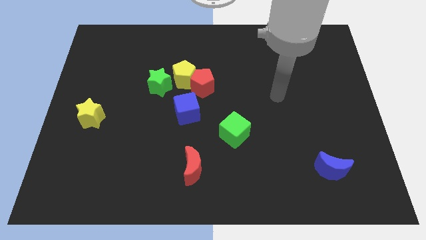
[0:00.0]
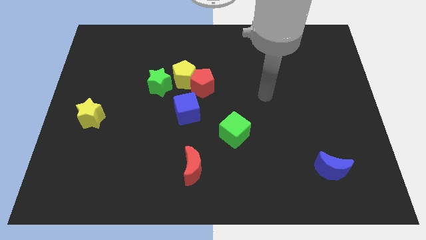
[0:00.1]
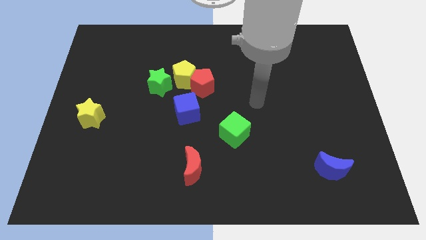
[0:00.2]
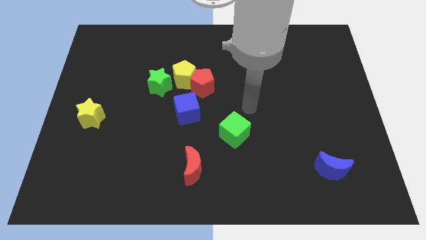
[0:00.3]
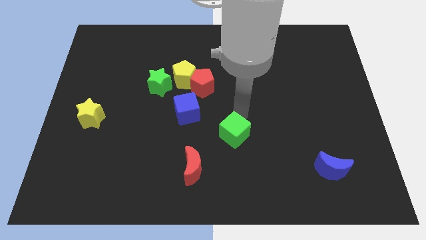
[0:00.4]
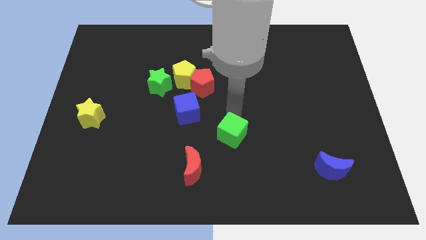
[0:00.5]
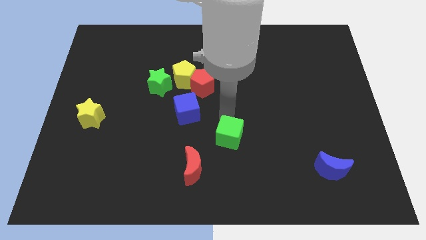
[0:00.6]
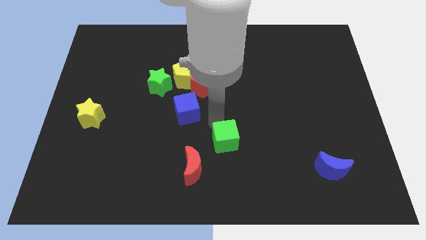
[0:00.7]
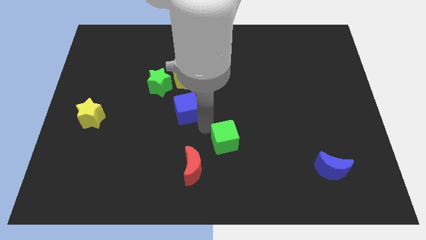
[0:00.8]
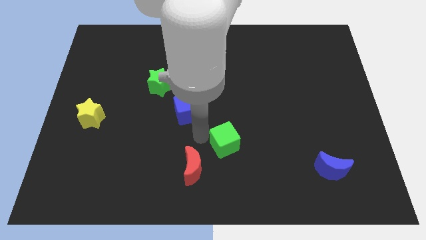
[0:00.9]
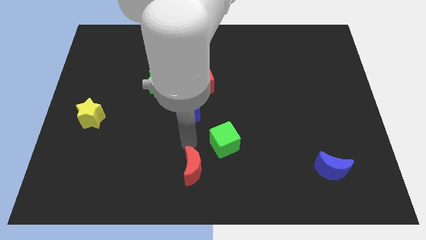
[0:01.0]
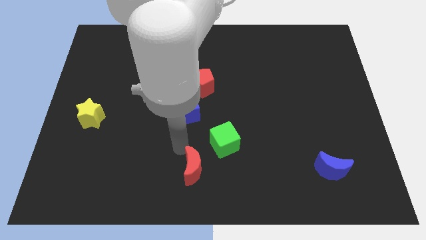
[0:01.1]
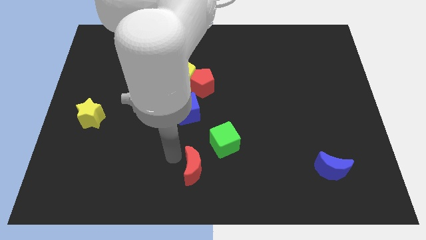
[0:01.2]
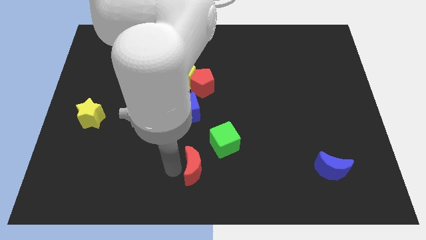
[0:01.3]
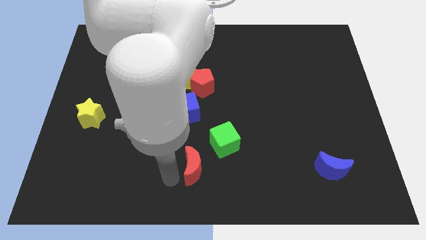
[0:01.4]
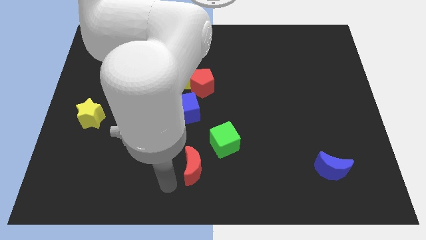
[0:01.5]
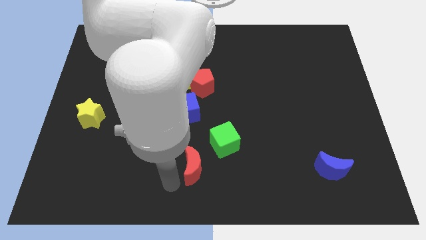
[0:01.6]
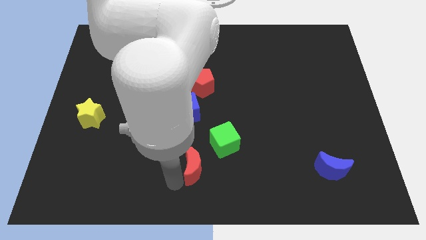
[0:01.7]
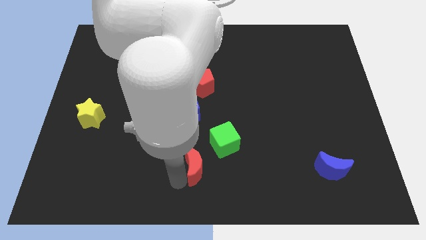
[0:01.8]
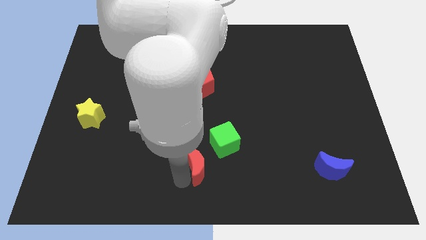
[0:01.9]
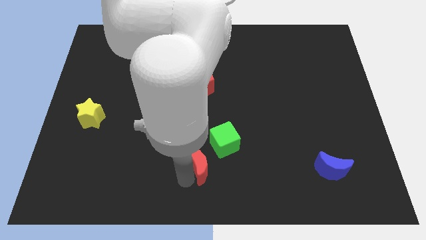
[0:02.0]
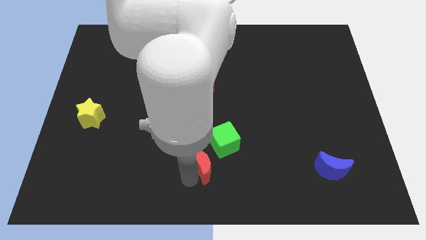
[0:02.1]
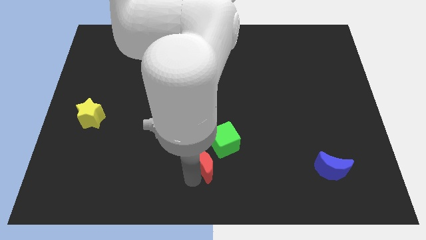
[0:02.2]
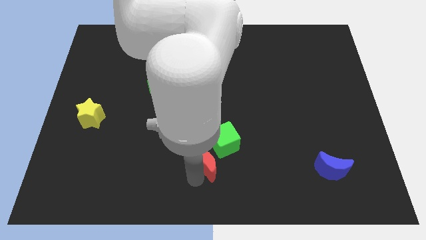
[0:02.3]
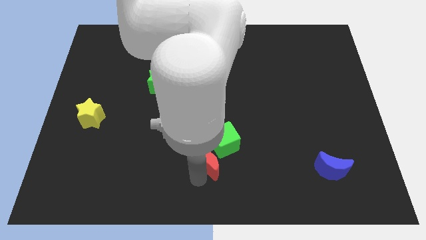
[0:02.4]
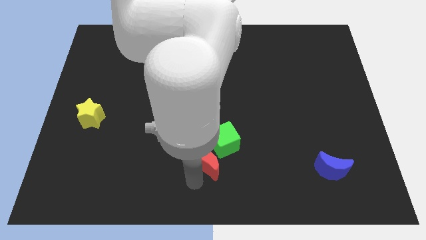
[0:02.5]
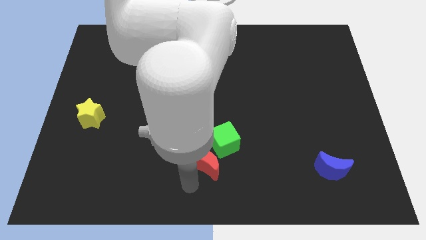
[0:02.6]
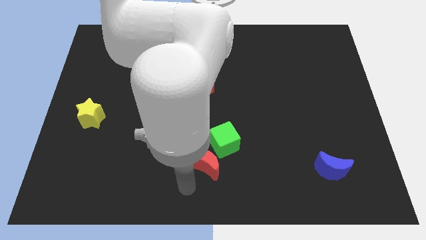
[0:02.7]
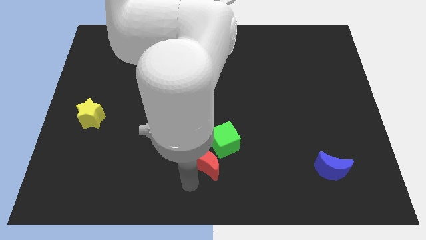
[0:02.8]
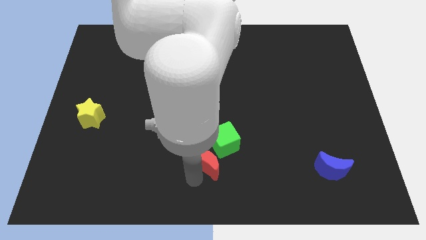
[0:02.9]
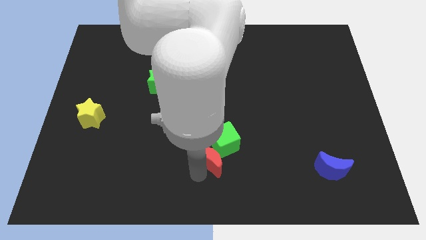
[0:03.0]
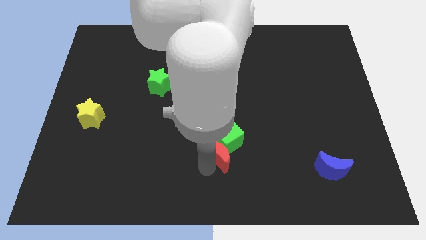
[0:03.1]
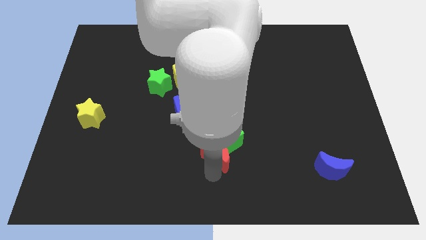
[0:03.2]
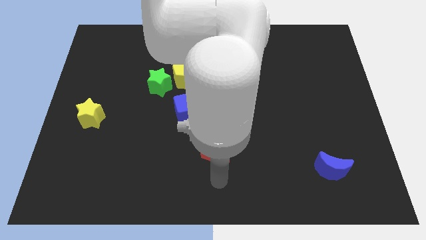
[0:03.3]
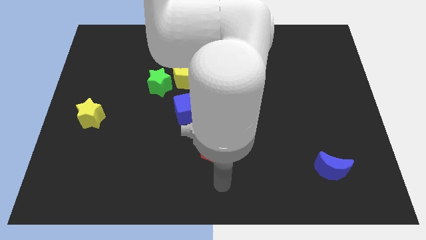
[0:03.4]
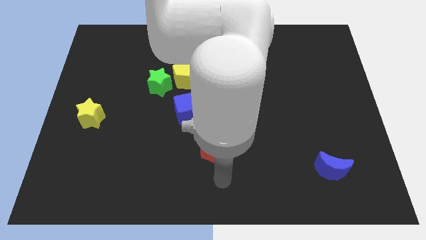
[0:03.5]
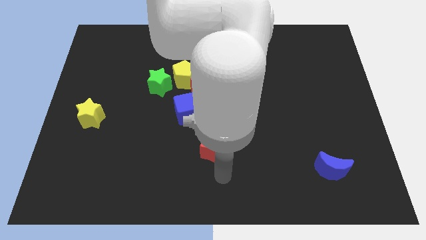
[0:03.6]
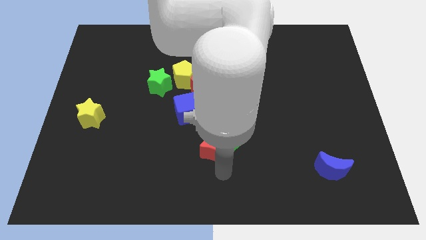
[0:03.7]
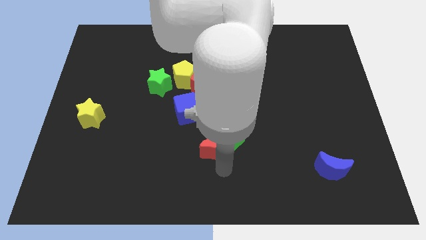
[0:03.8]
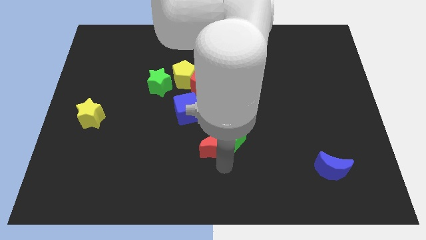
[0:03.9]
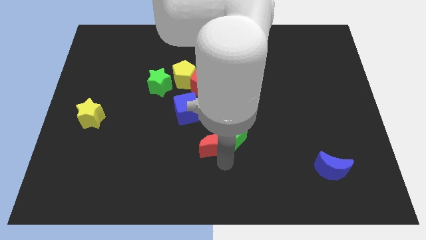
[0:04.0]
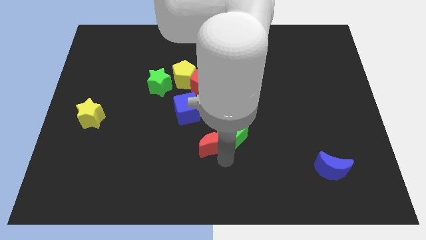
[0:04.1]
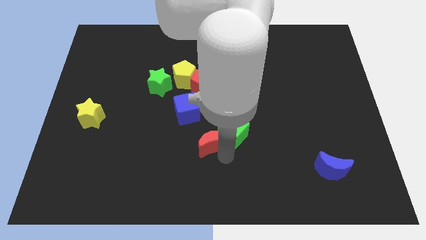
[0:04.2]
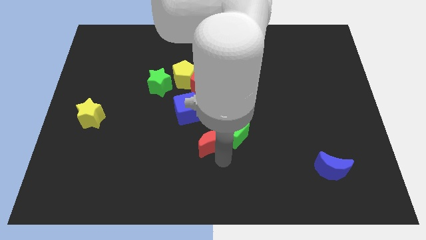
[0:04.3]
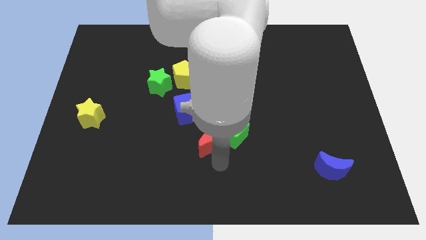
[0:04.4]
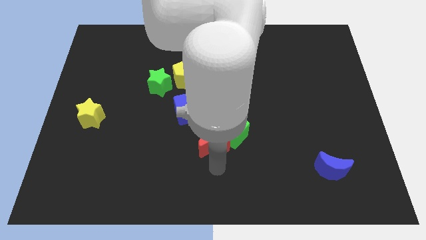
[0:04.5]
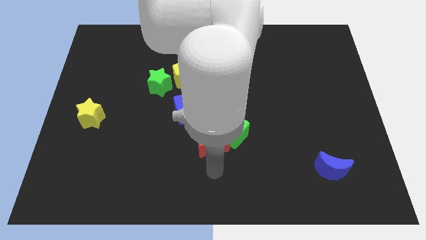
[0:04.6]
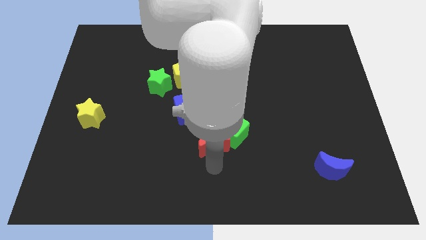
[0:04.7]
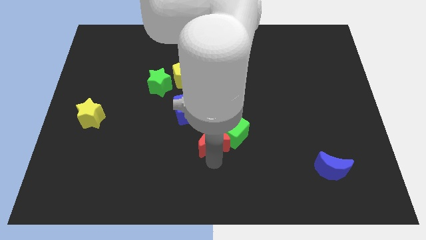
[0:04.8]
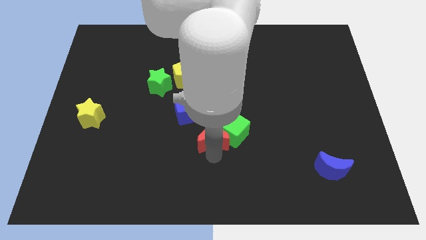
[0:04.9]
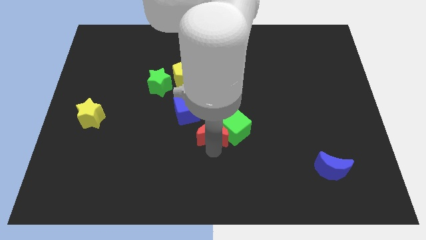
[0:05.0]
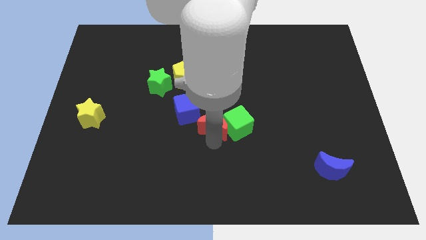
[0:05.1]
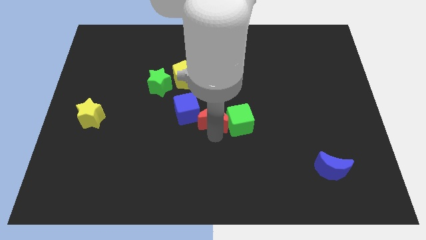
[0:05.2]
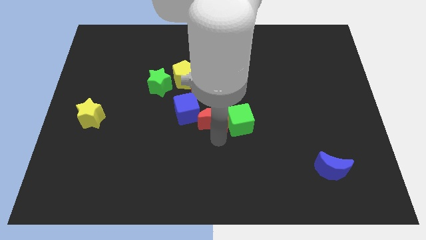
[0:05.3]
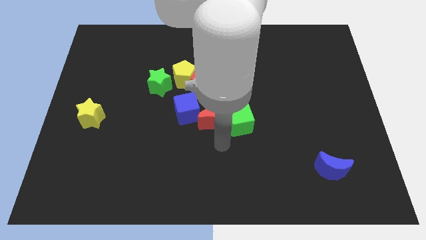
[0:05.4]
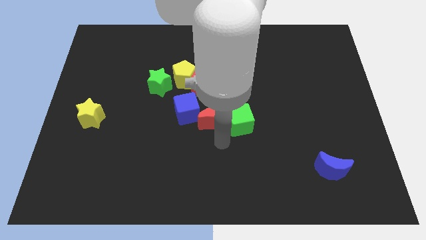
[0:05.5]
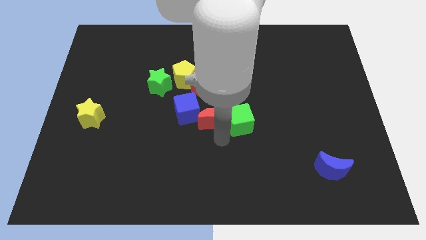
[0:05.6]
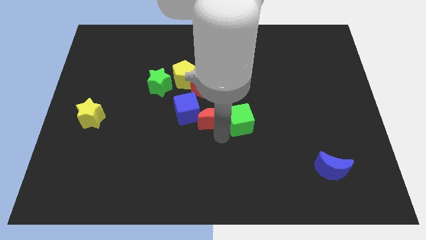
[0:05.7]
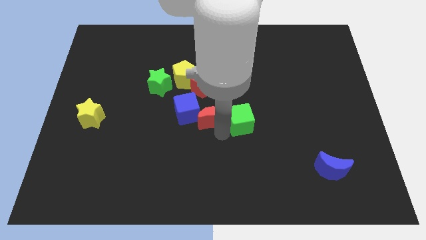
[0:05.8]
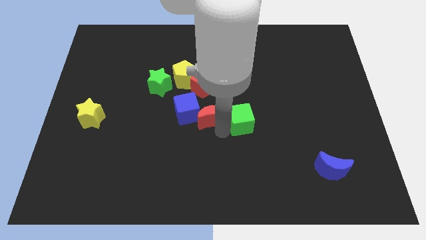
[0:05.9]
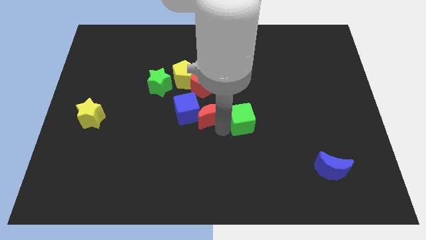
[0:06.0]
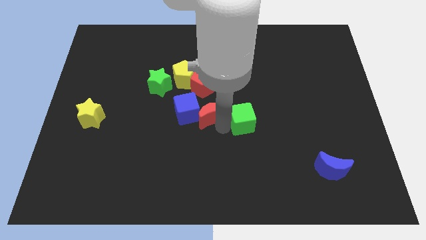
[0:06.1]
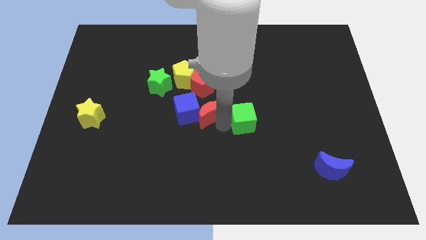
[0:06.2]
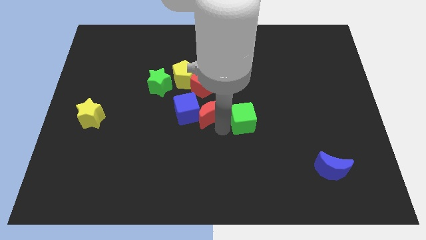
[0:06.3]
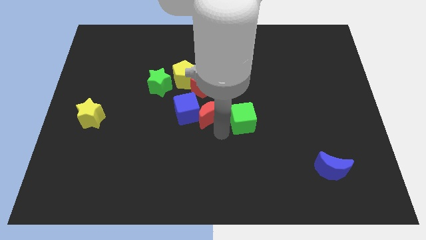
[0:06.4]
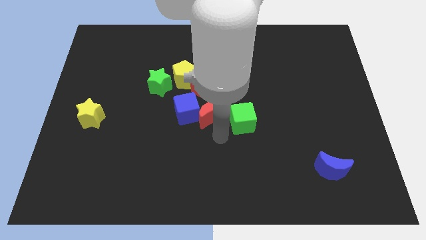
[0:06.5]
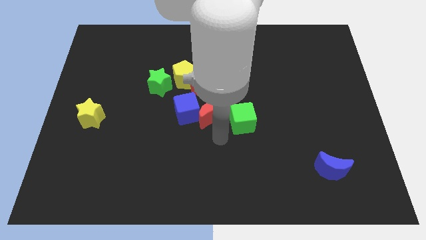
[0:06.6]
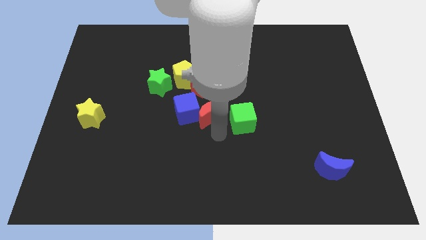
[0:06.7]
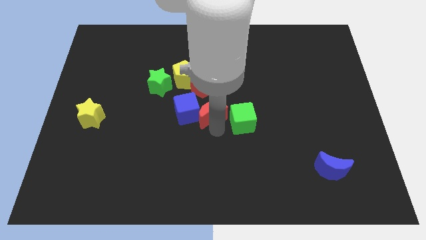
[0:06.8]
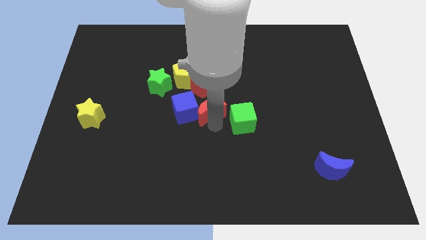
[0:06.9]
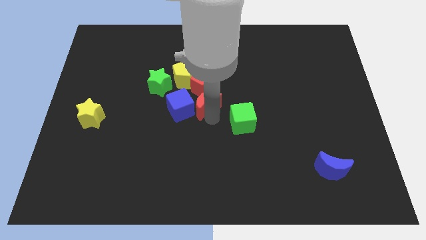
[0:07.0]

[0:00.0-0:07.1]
slide the red moon to the red pentagon

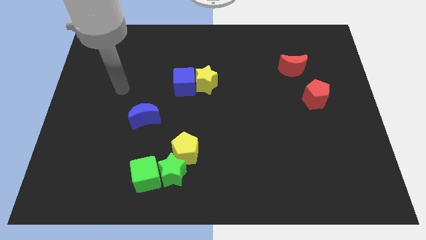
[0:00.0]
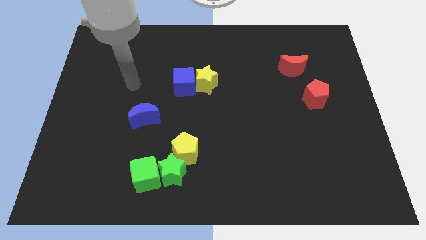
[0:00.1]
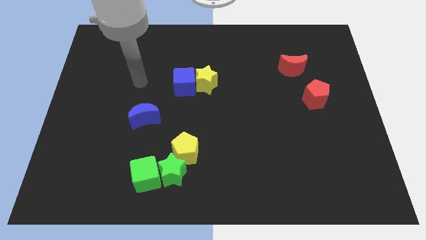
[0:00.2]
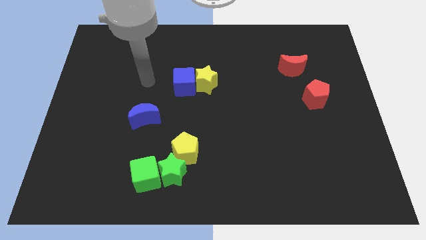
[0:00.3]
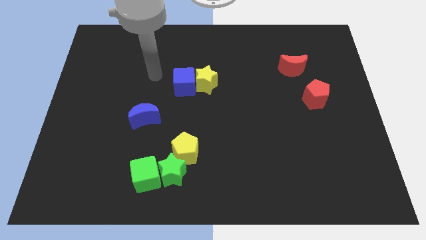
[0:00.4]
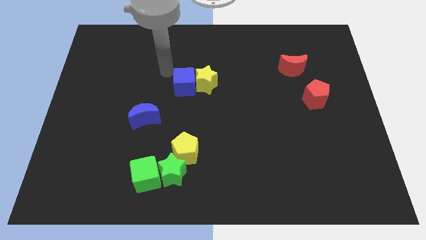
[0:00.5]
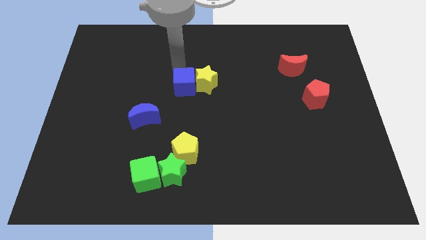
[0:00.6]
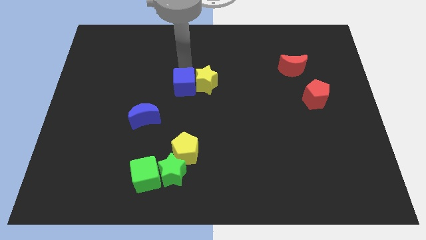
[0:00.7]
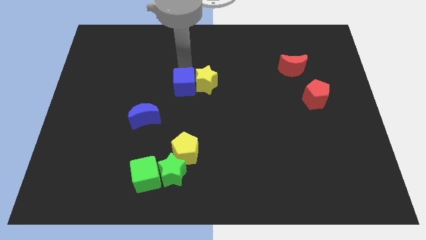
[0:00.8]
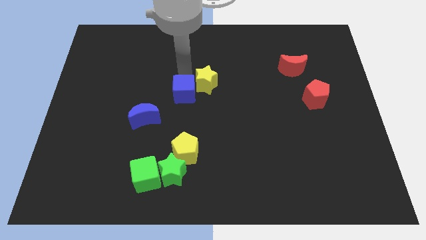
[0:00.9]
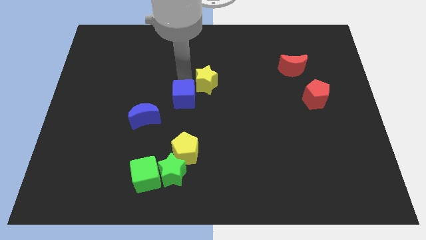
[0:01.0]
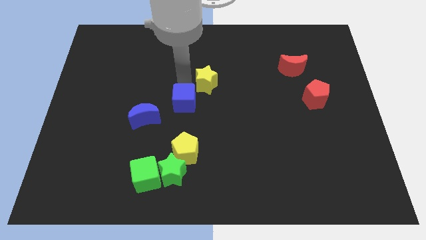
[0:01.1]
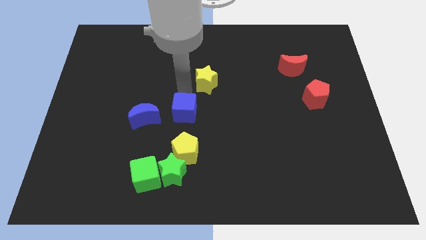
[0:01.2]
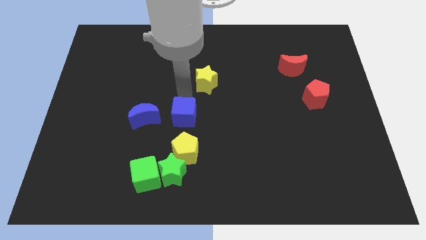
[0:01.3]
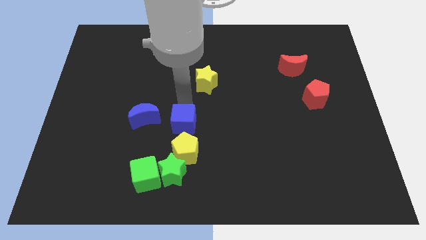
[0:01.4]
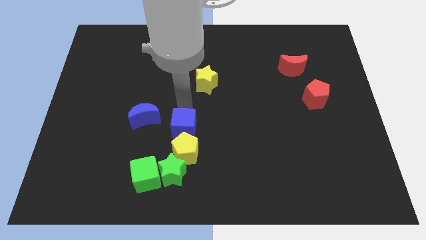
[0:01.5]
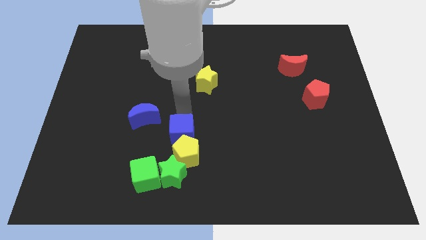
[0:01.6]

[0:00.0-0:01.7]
move the blue cube to the yellow pentagon
